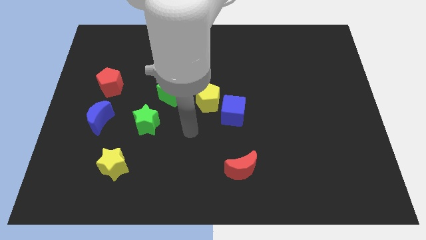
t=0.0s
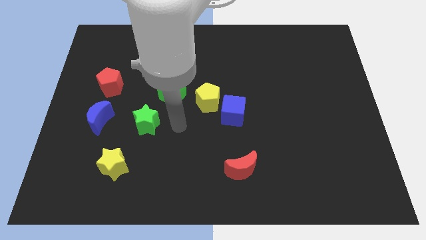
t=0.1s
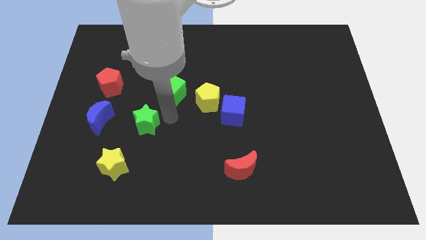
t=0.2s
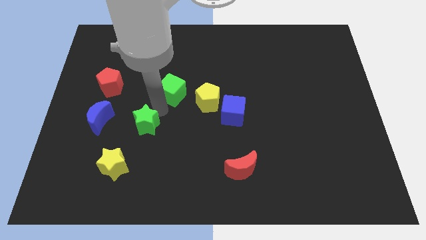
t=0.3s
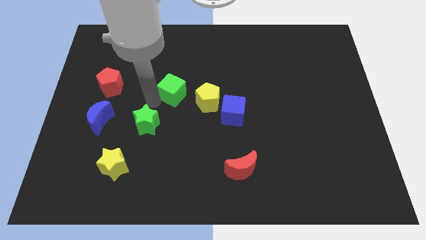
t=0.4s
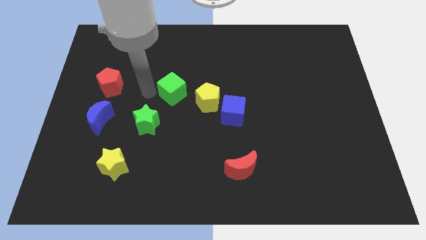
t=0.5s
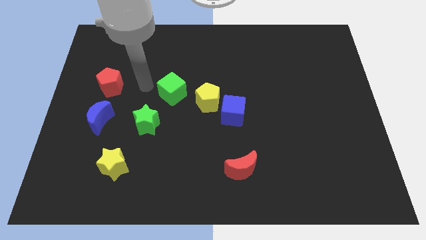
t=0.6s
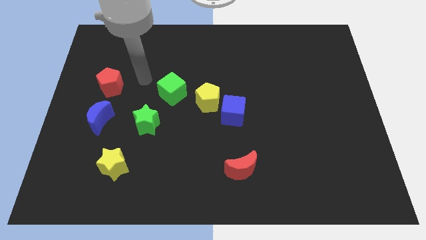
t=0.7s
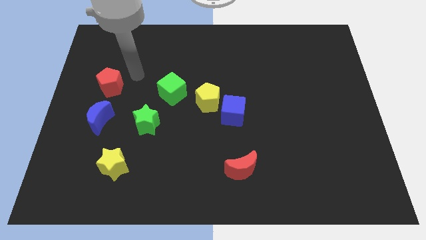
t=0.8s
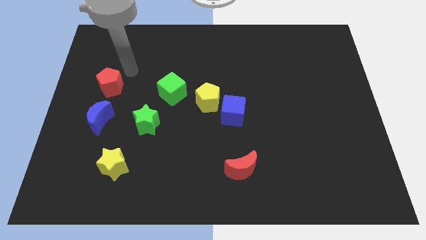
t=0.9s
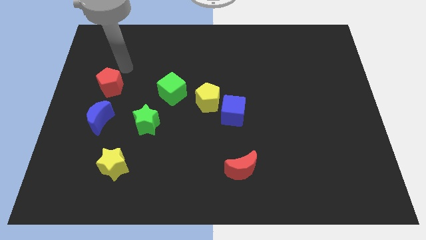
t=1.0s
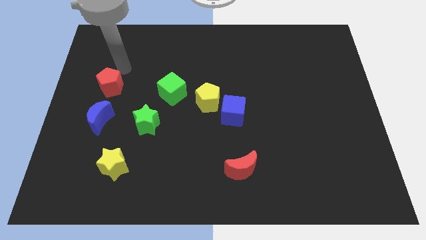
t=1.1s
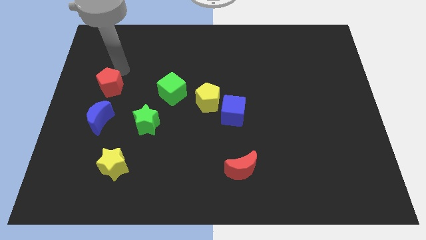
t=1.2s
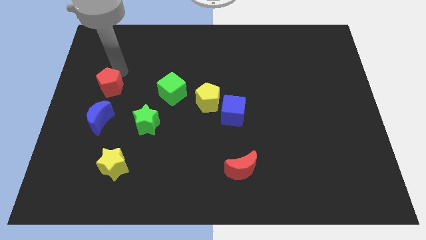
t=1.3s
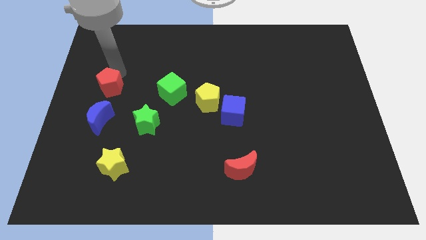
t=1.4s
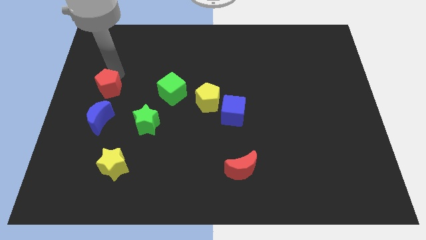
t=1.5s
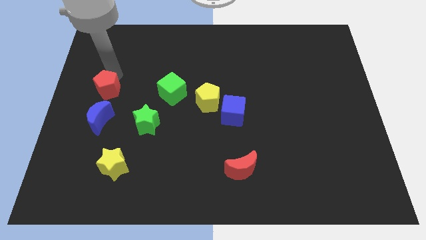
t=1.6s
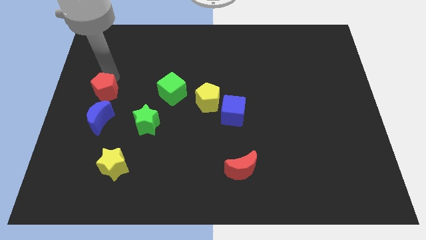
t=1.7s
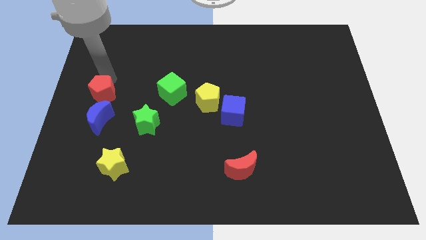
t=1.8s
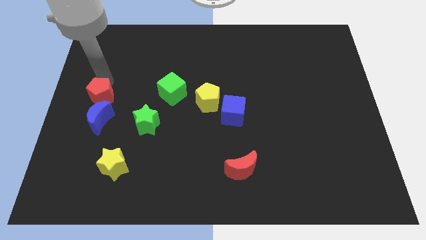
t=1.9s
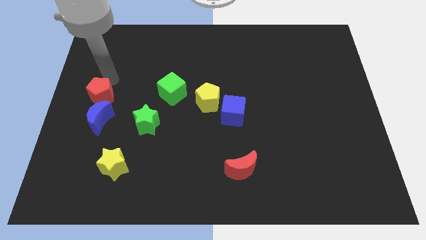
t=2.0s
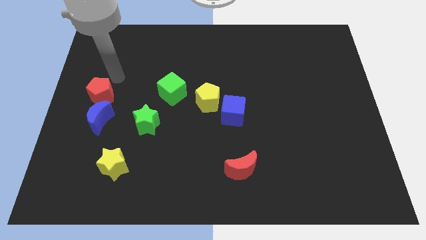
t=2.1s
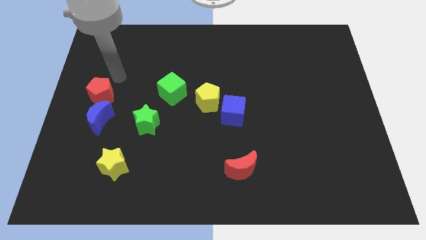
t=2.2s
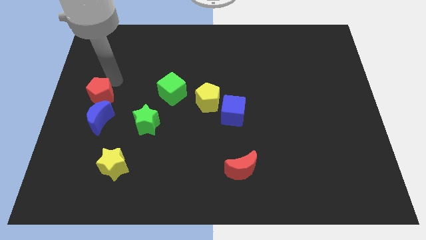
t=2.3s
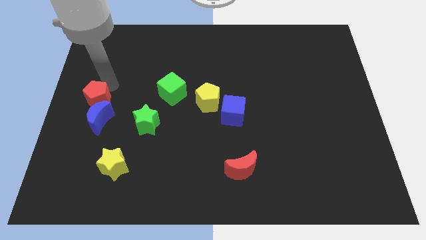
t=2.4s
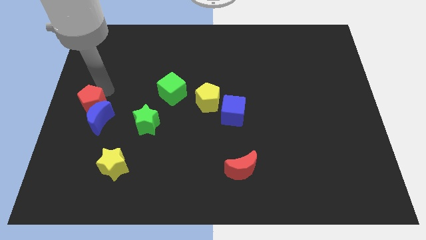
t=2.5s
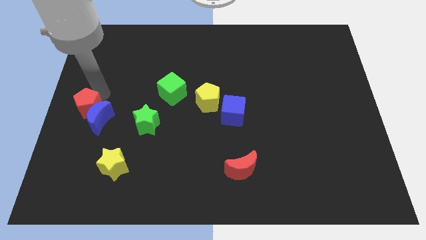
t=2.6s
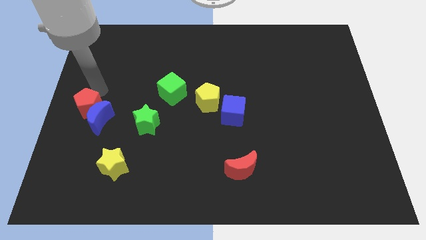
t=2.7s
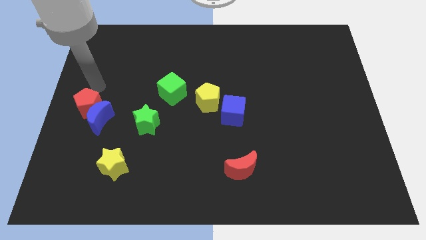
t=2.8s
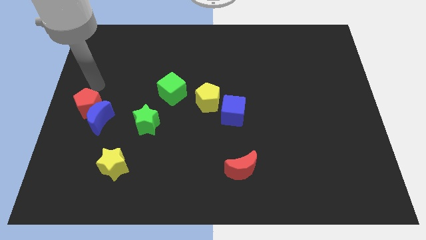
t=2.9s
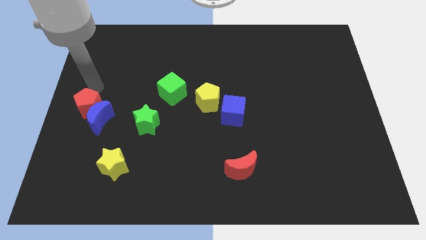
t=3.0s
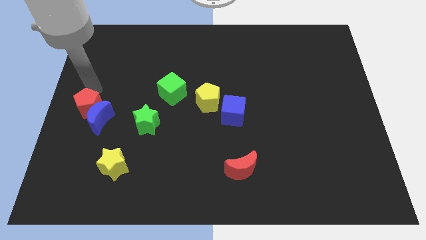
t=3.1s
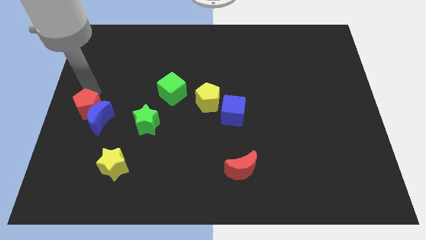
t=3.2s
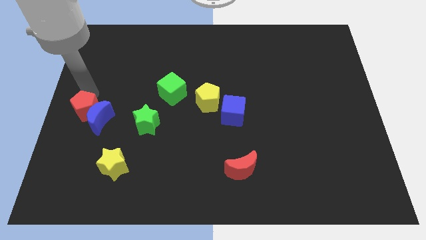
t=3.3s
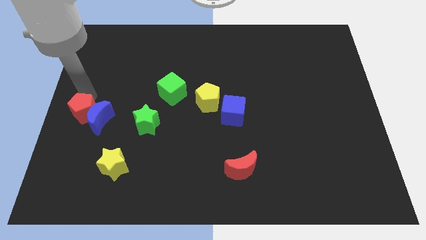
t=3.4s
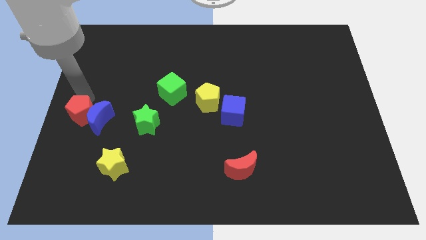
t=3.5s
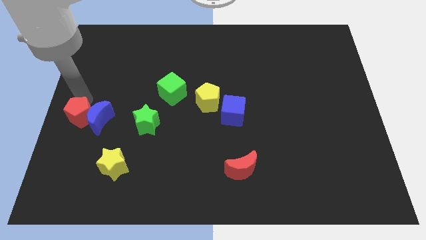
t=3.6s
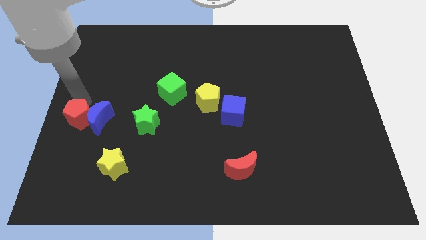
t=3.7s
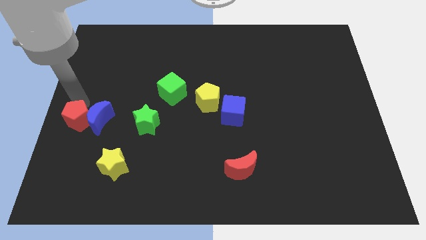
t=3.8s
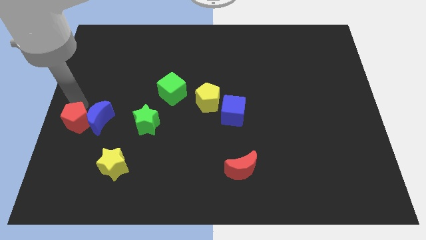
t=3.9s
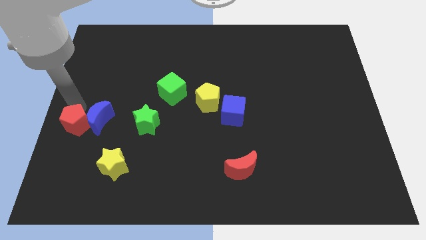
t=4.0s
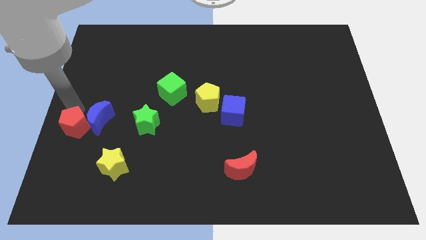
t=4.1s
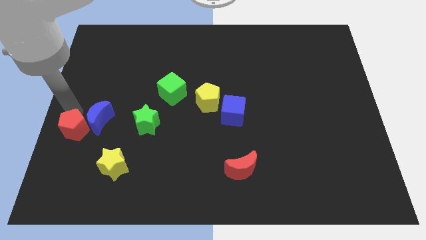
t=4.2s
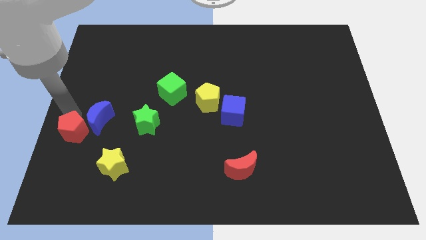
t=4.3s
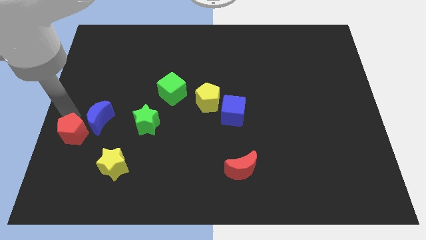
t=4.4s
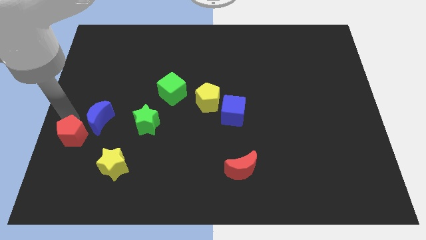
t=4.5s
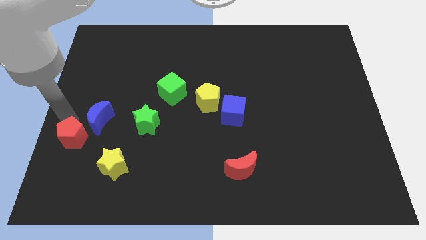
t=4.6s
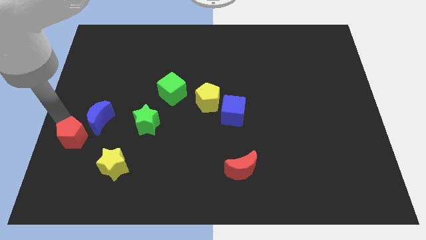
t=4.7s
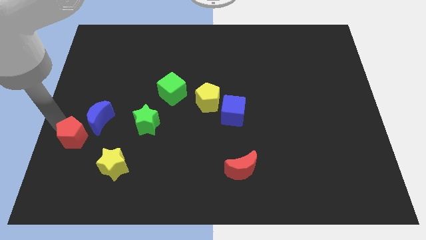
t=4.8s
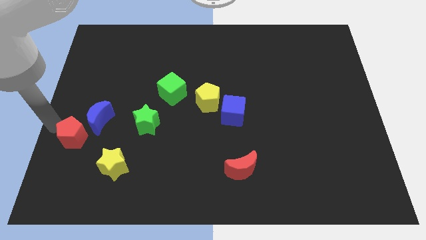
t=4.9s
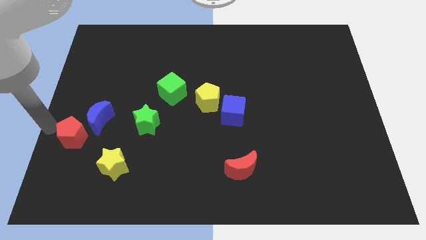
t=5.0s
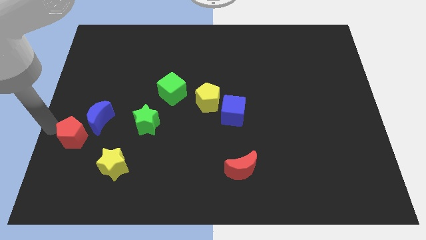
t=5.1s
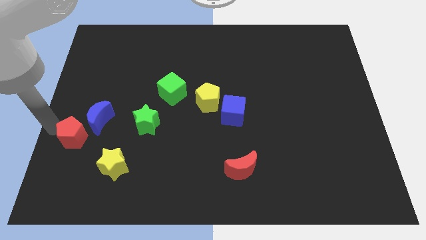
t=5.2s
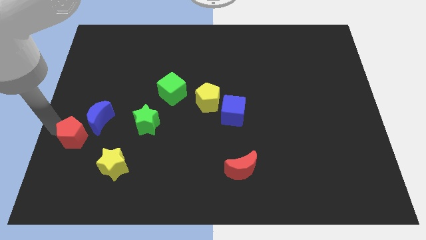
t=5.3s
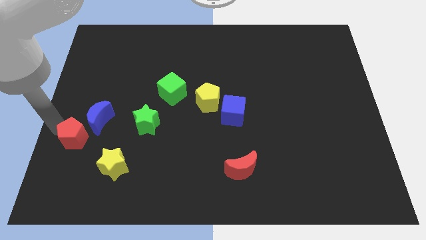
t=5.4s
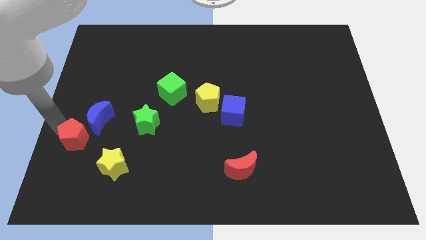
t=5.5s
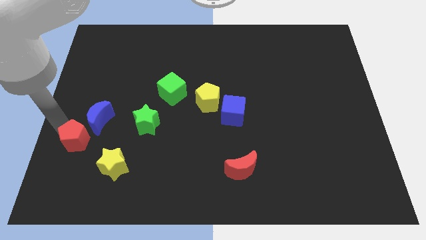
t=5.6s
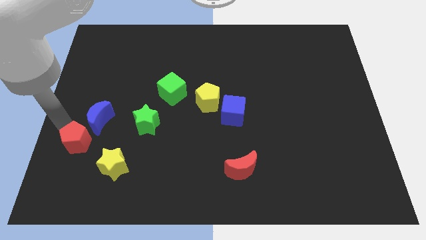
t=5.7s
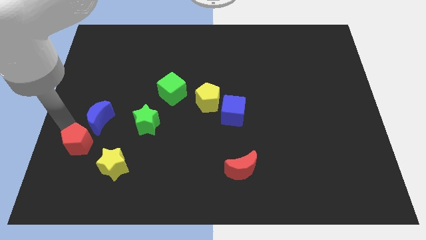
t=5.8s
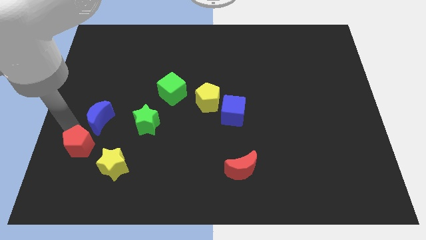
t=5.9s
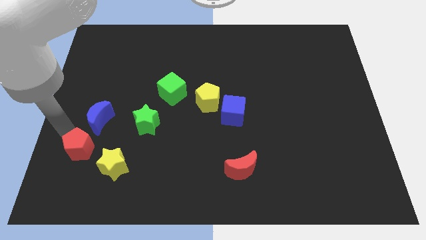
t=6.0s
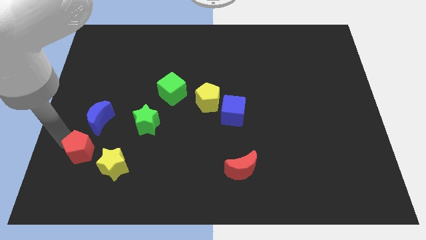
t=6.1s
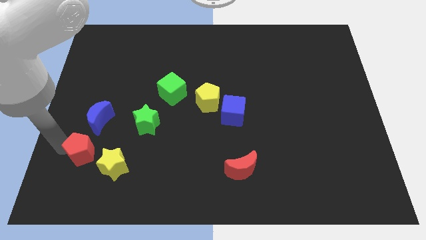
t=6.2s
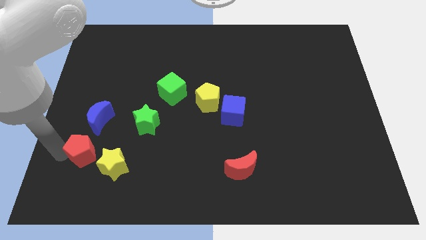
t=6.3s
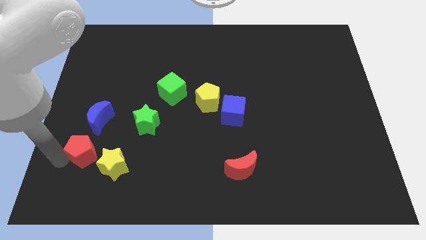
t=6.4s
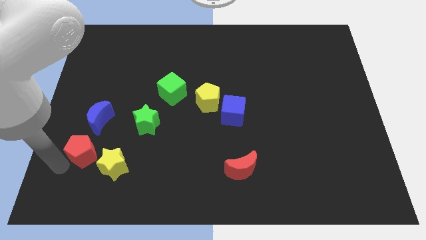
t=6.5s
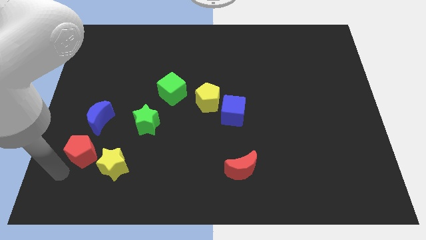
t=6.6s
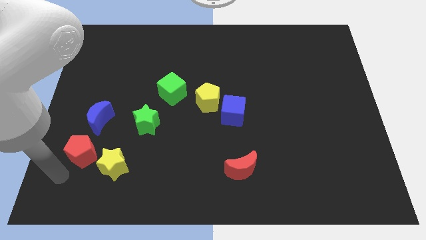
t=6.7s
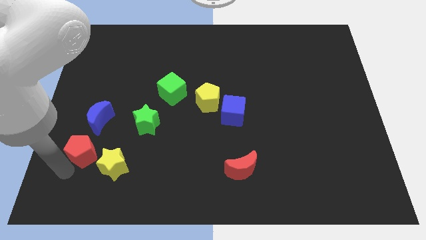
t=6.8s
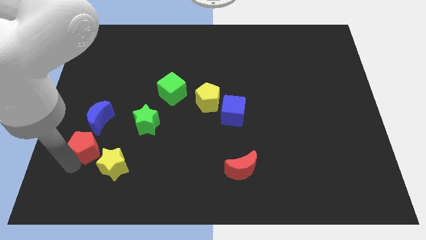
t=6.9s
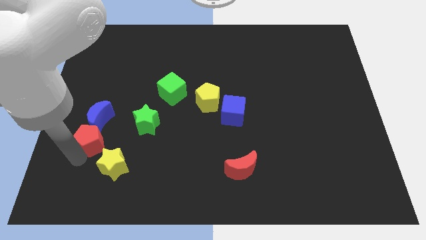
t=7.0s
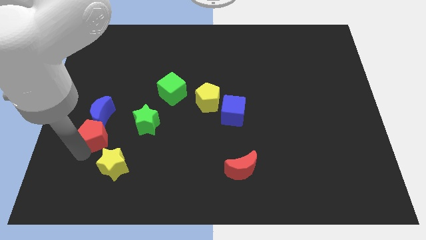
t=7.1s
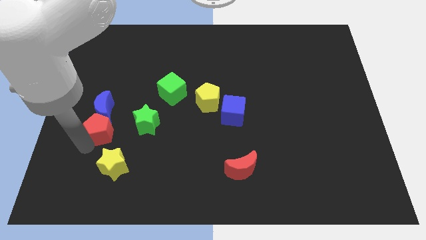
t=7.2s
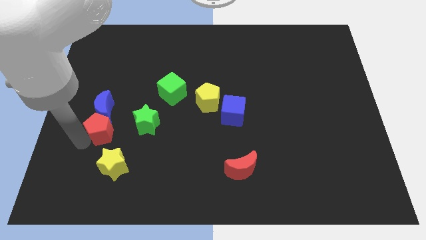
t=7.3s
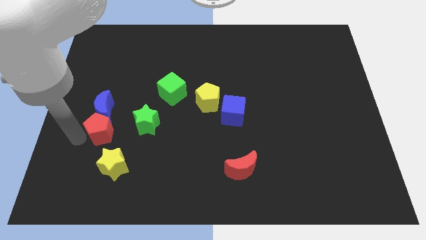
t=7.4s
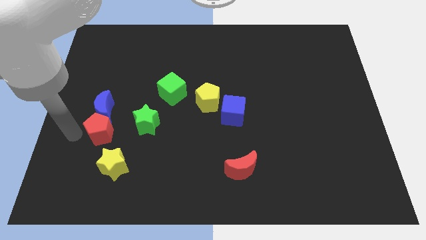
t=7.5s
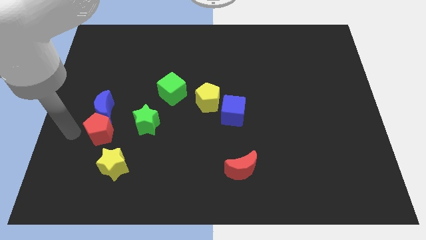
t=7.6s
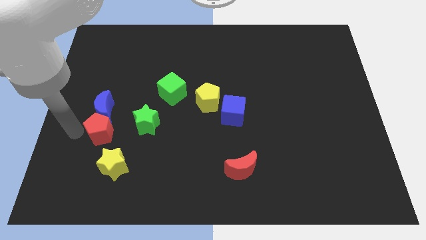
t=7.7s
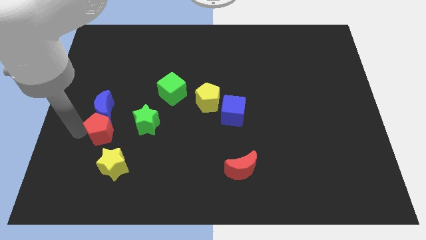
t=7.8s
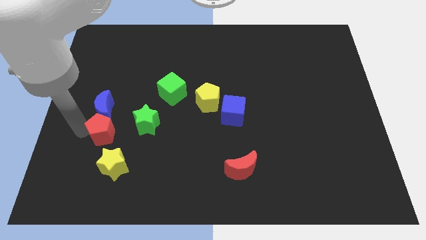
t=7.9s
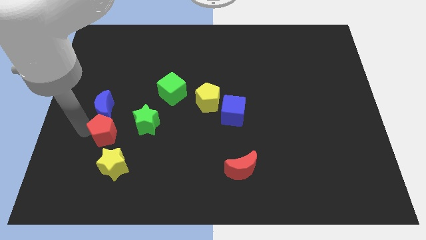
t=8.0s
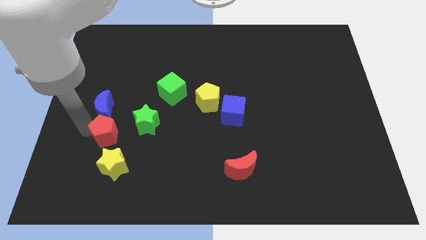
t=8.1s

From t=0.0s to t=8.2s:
push the red pentagon downwards and then to the right a little bit
